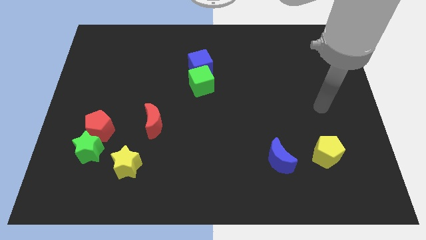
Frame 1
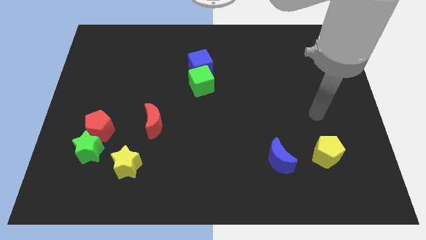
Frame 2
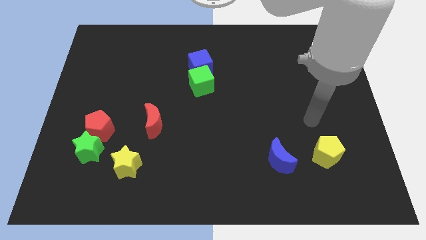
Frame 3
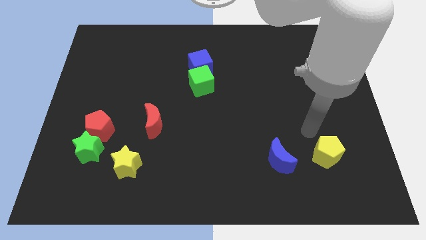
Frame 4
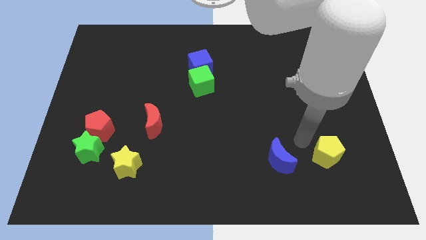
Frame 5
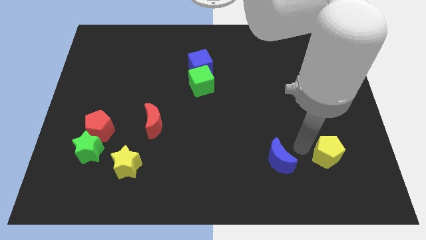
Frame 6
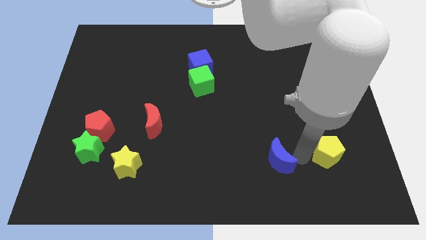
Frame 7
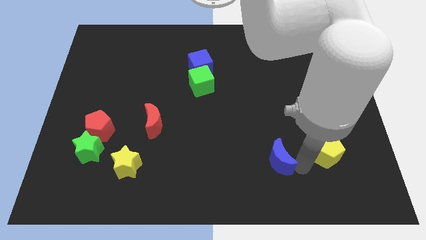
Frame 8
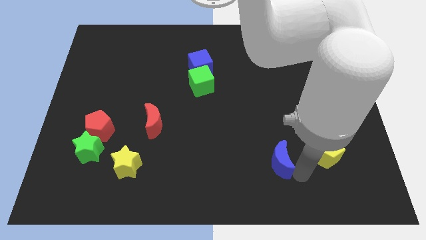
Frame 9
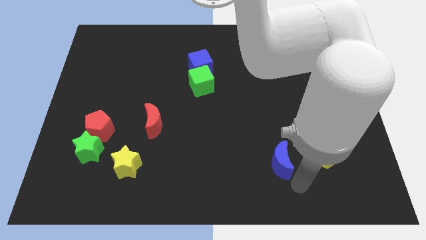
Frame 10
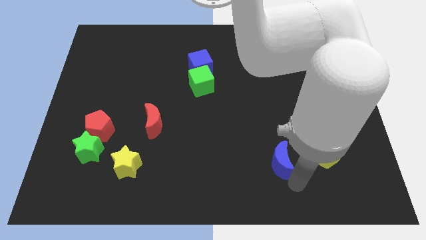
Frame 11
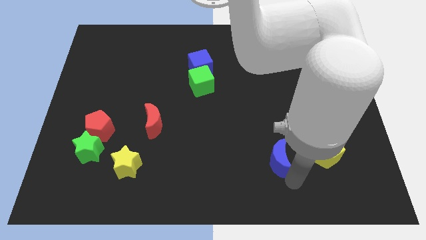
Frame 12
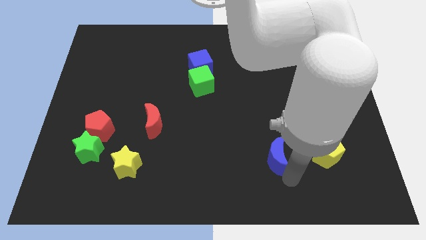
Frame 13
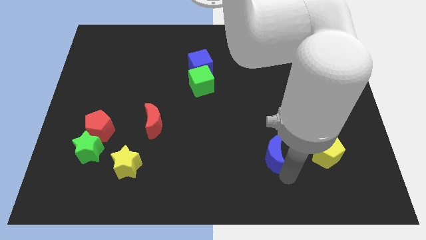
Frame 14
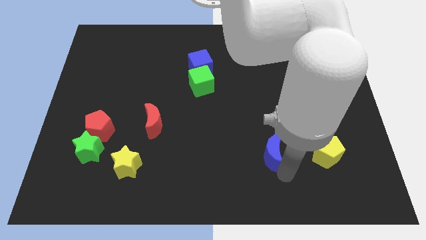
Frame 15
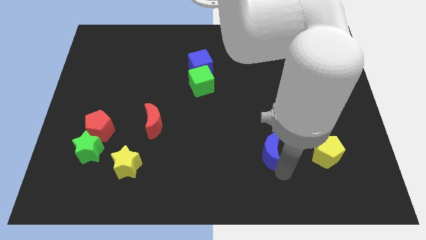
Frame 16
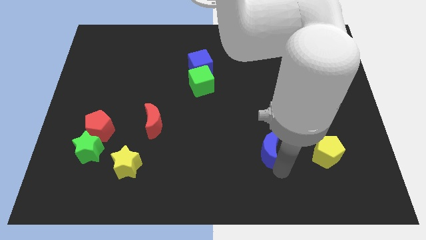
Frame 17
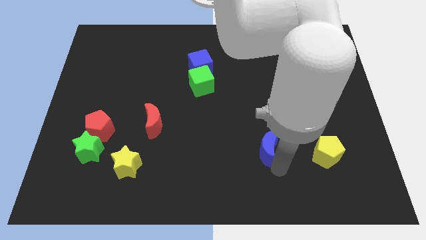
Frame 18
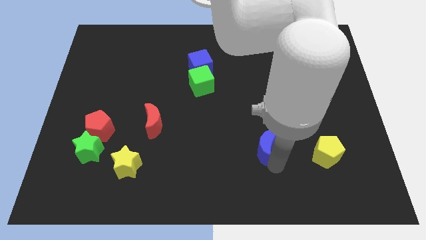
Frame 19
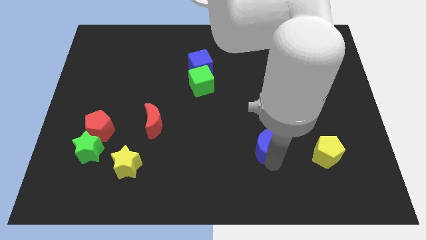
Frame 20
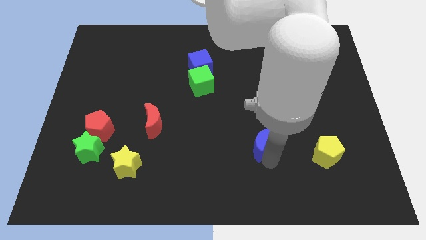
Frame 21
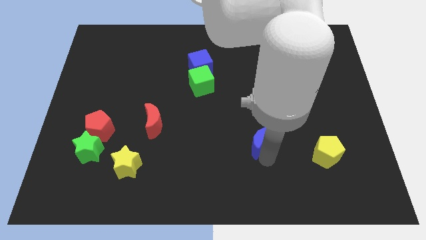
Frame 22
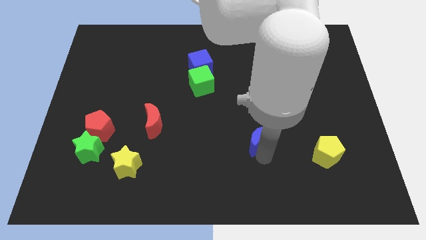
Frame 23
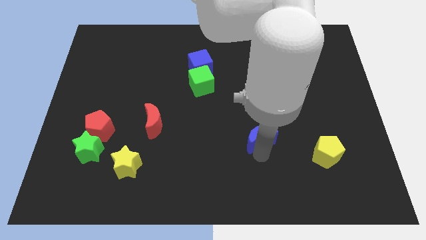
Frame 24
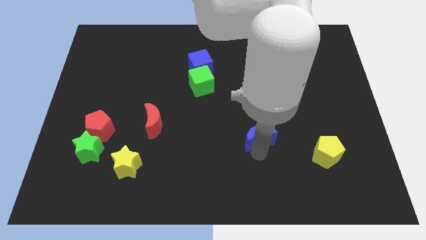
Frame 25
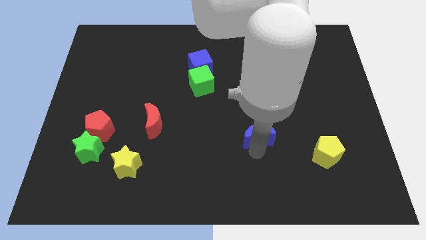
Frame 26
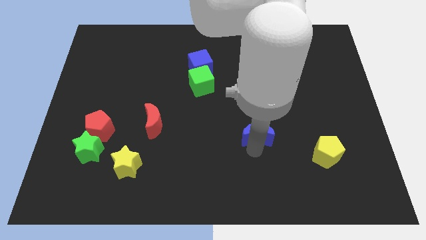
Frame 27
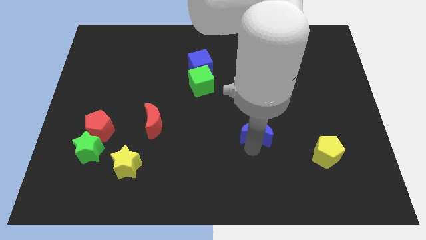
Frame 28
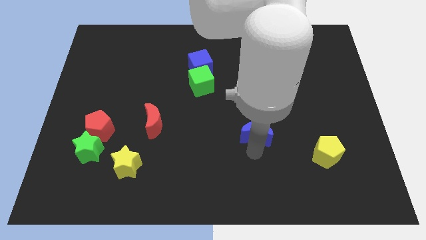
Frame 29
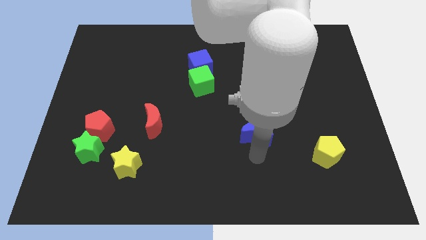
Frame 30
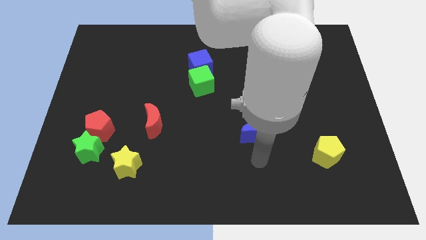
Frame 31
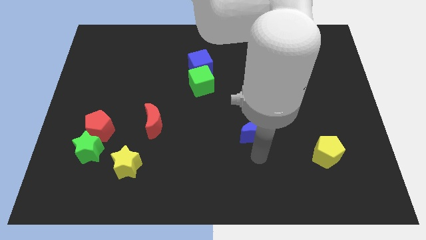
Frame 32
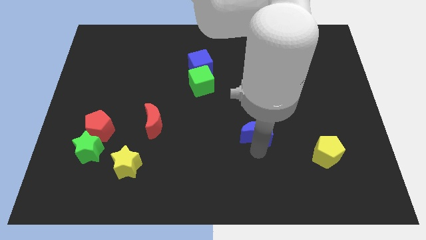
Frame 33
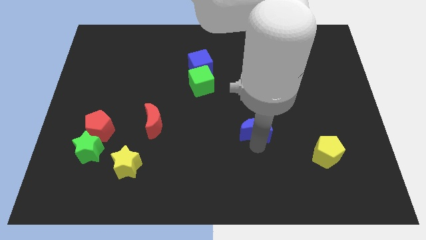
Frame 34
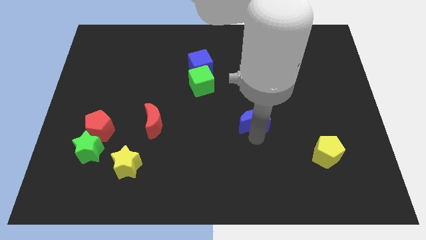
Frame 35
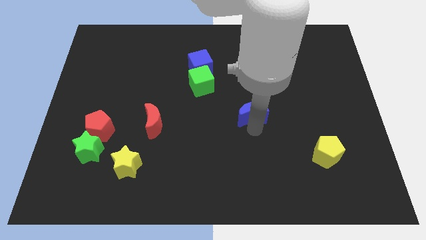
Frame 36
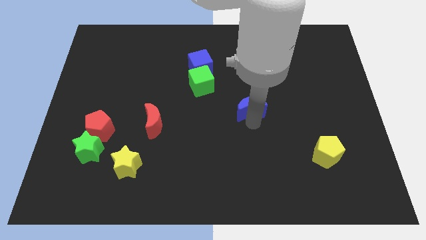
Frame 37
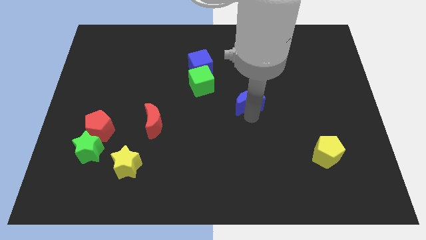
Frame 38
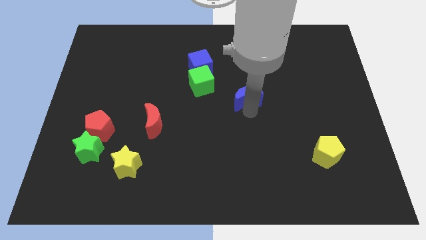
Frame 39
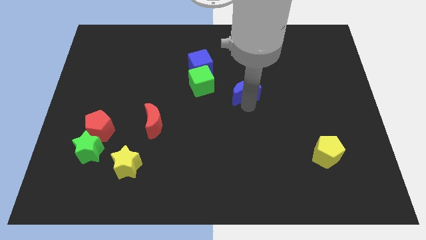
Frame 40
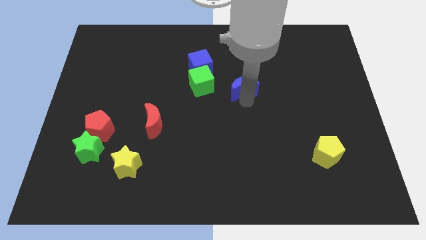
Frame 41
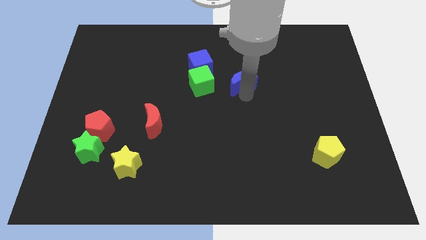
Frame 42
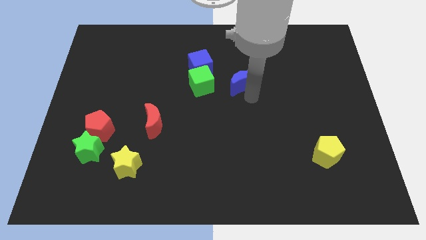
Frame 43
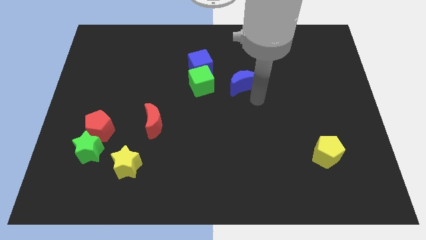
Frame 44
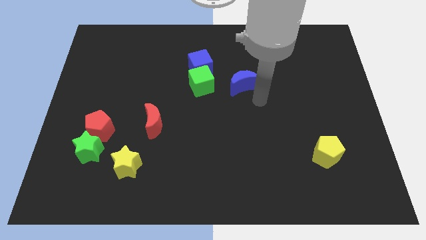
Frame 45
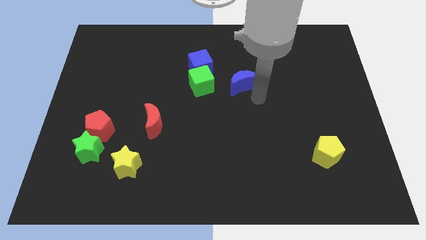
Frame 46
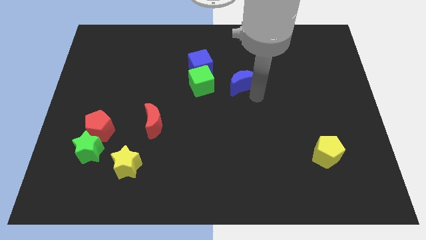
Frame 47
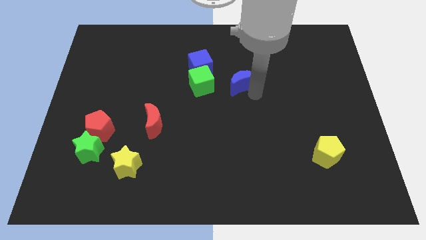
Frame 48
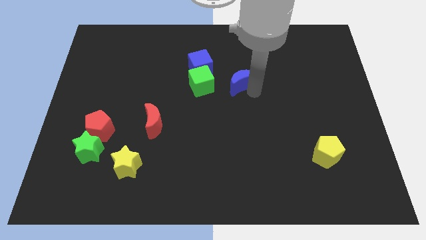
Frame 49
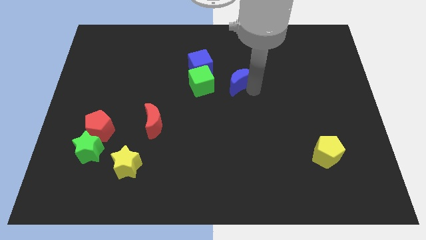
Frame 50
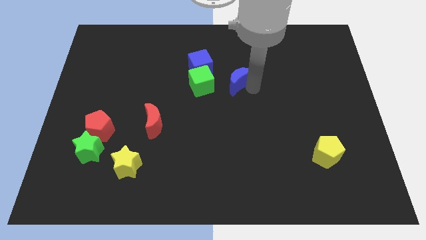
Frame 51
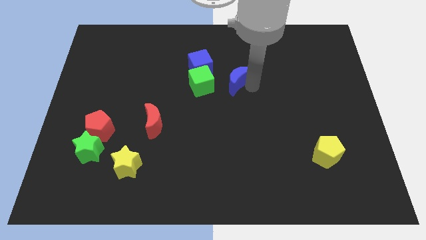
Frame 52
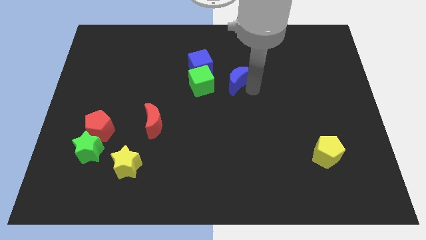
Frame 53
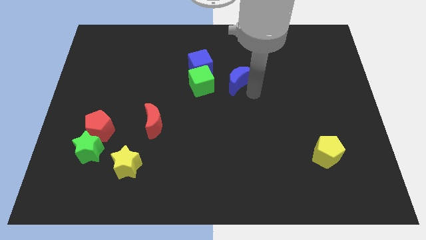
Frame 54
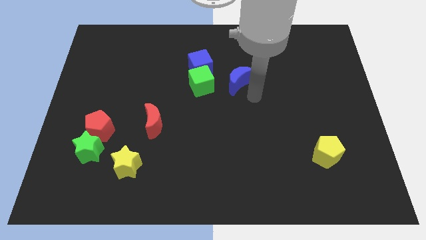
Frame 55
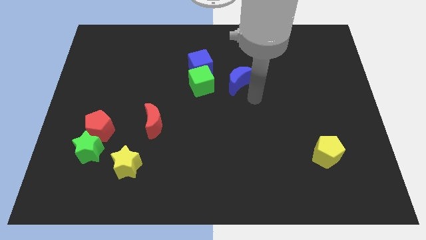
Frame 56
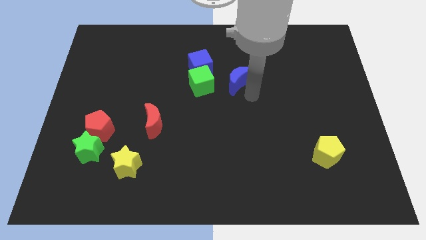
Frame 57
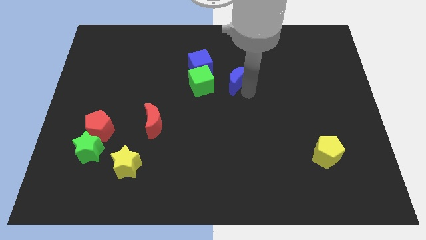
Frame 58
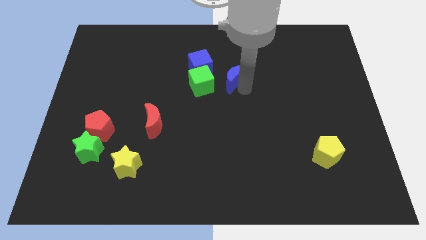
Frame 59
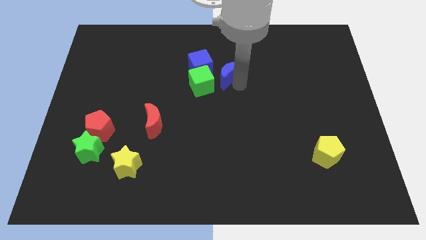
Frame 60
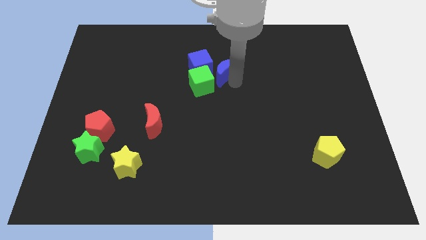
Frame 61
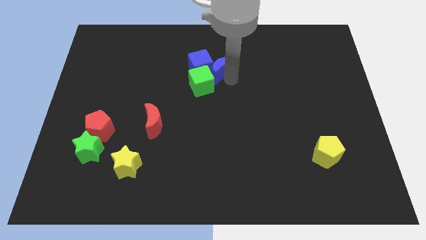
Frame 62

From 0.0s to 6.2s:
push the blue moon to the blue cube

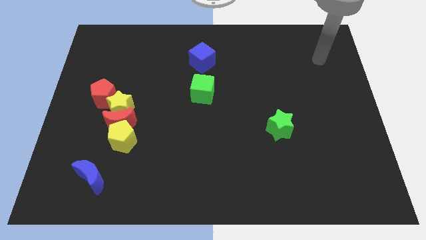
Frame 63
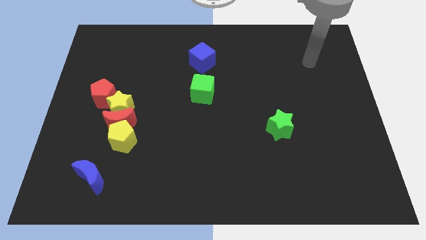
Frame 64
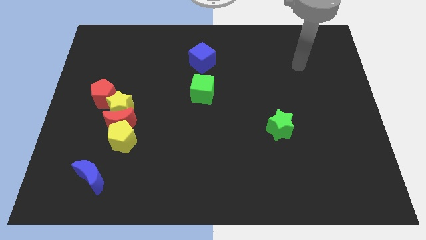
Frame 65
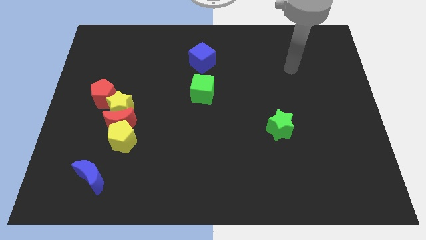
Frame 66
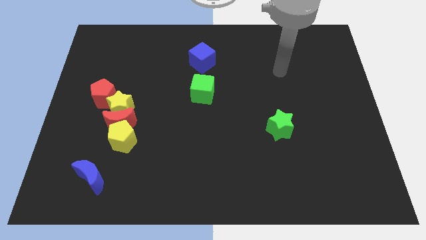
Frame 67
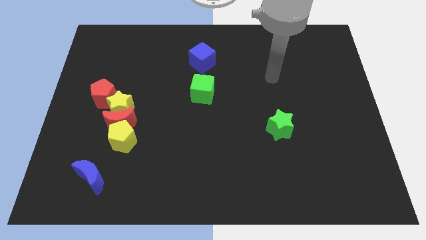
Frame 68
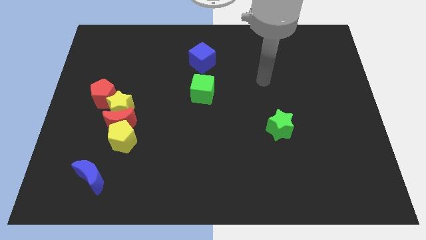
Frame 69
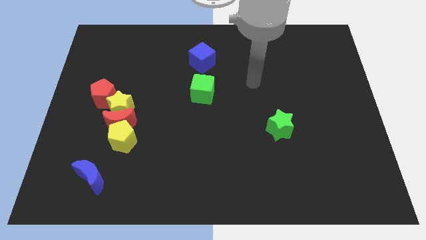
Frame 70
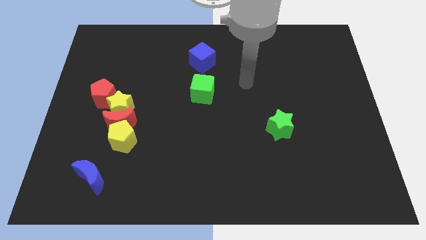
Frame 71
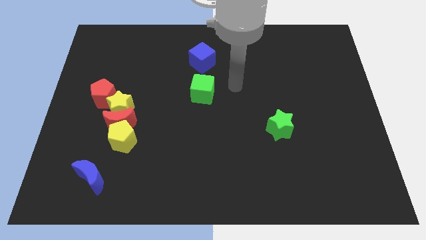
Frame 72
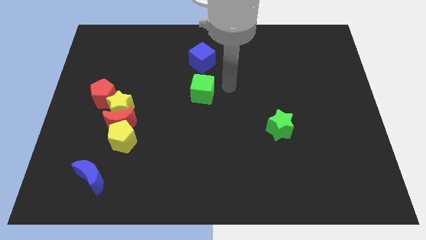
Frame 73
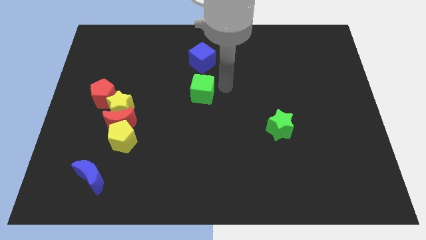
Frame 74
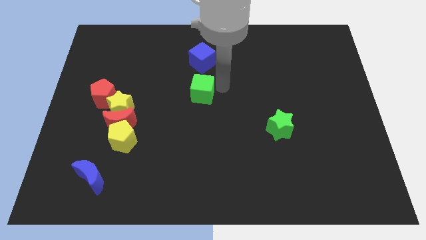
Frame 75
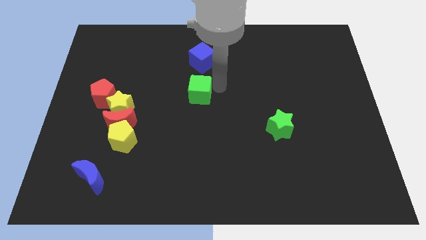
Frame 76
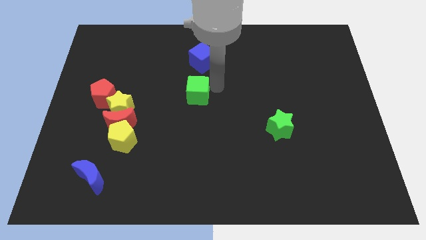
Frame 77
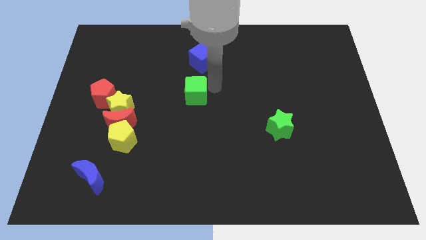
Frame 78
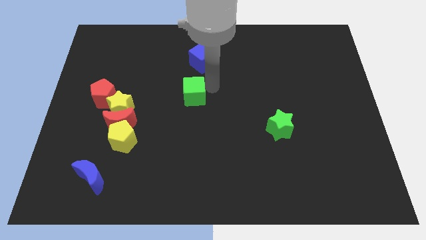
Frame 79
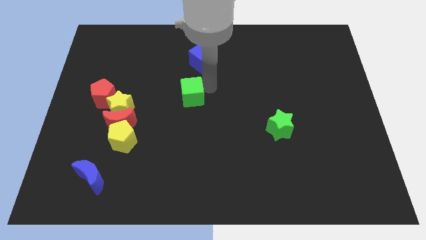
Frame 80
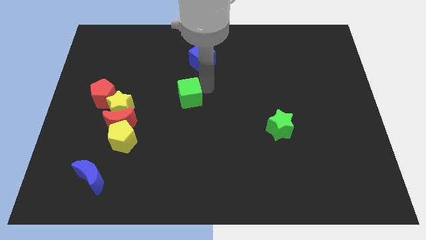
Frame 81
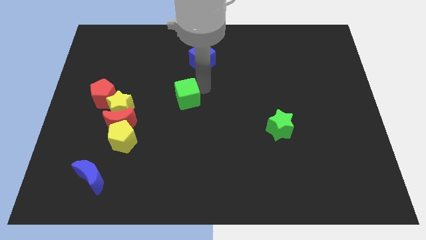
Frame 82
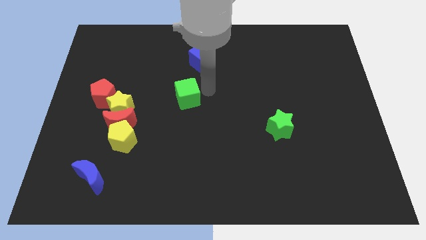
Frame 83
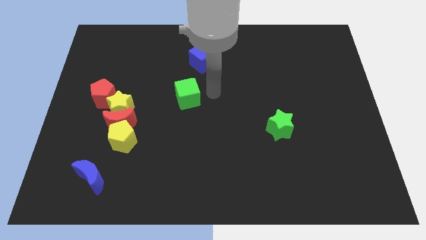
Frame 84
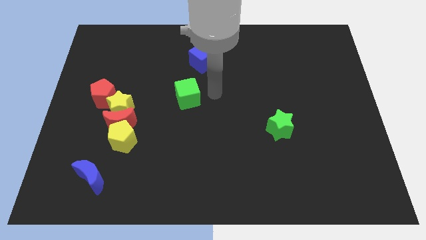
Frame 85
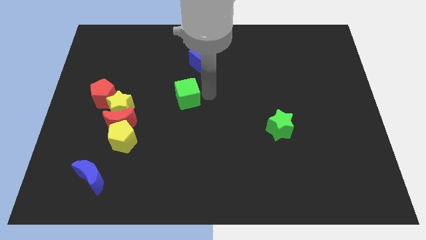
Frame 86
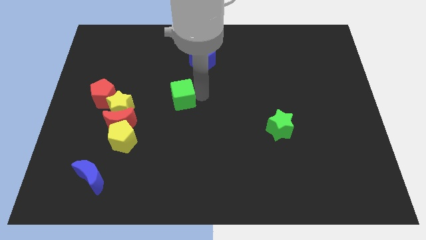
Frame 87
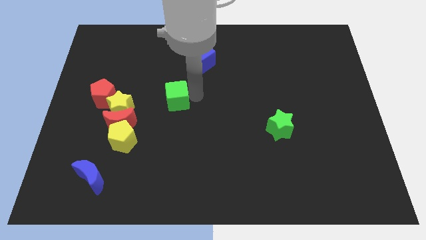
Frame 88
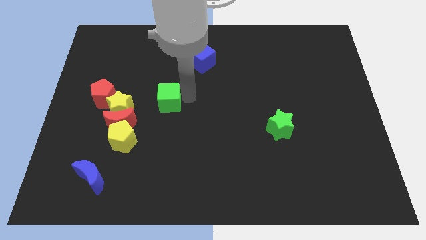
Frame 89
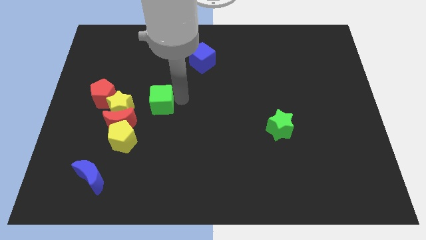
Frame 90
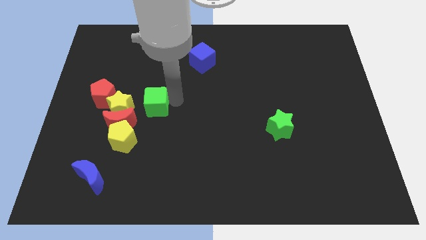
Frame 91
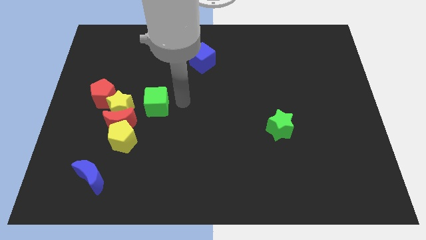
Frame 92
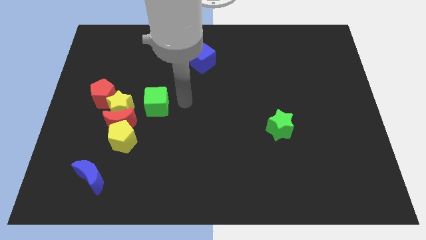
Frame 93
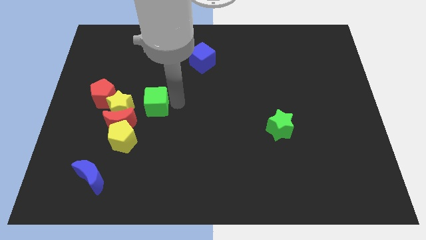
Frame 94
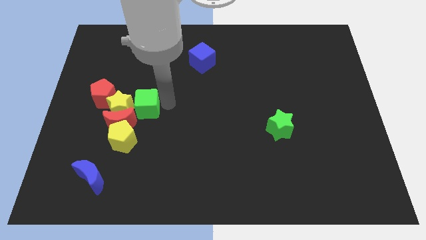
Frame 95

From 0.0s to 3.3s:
move the green cube close to the yellow star
